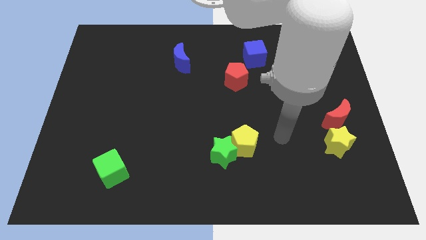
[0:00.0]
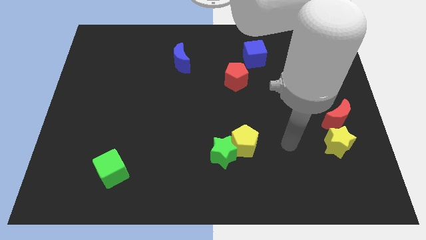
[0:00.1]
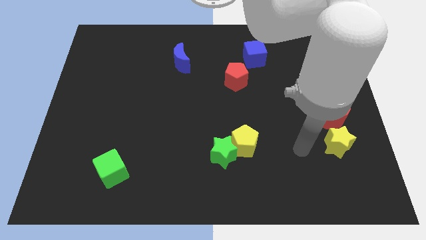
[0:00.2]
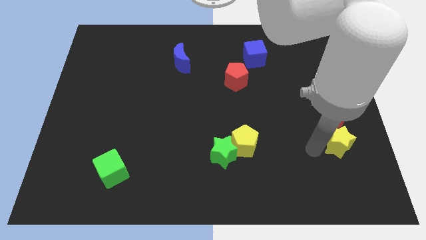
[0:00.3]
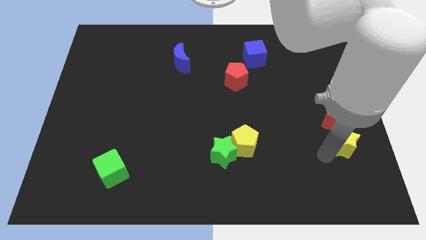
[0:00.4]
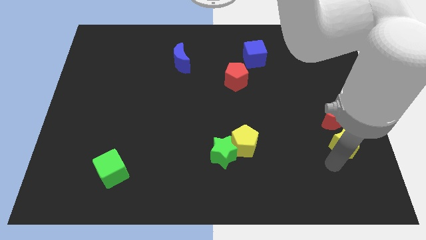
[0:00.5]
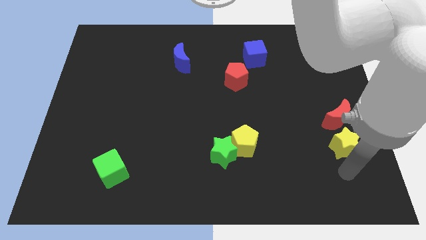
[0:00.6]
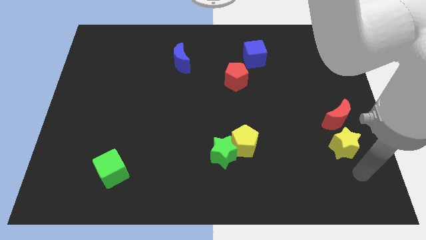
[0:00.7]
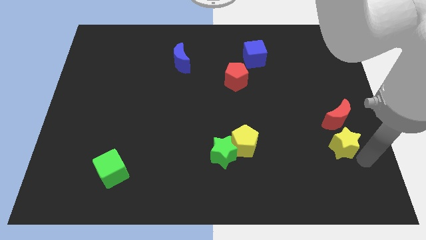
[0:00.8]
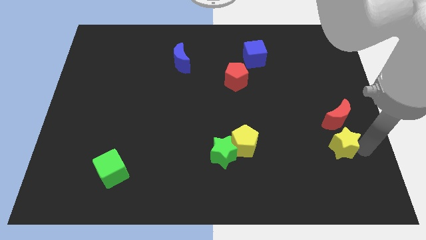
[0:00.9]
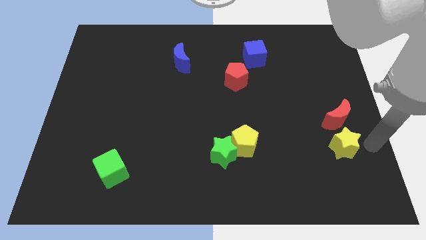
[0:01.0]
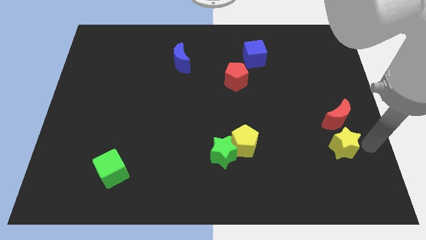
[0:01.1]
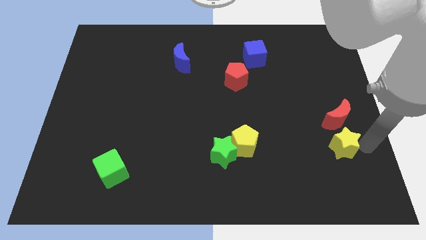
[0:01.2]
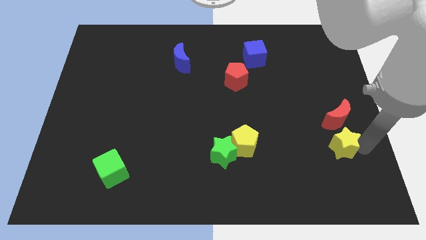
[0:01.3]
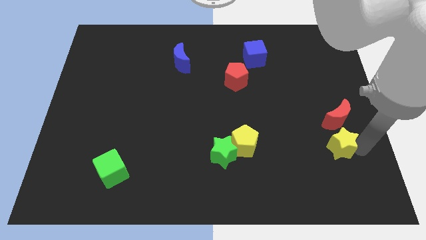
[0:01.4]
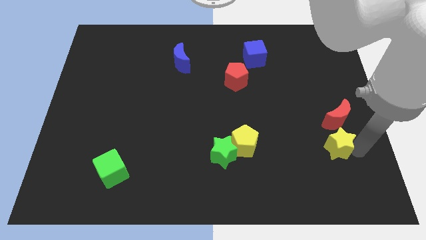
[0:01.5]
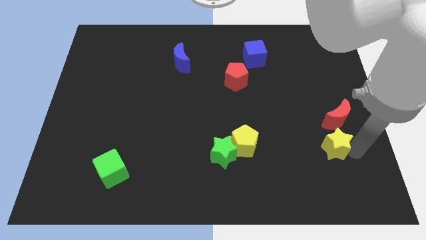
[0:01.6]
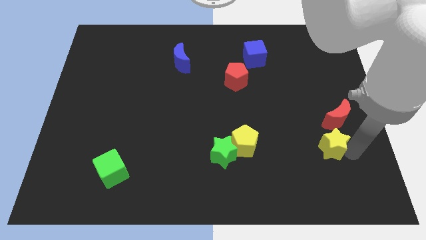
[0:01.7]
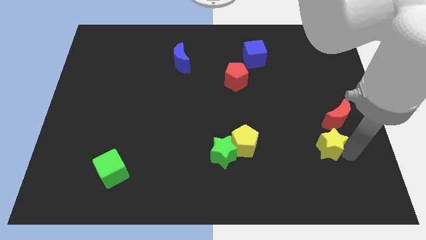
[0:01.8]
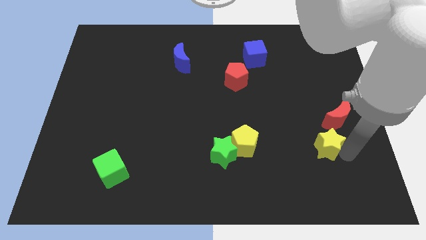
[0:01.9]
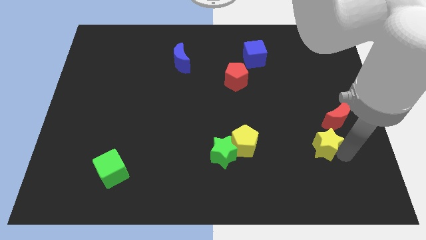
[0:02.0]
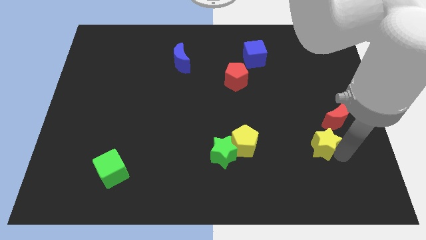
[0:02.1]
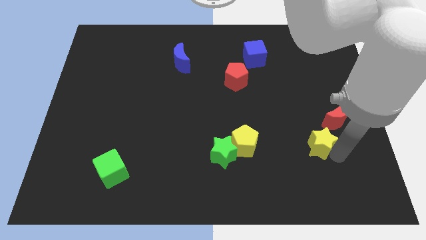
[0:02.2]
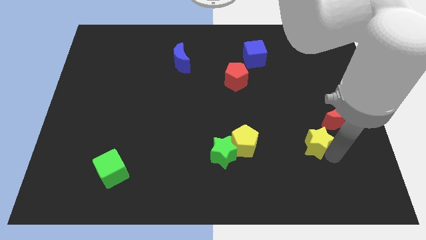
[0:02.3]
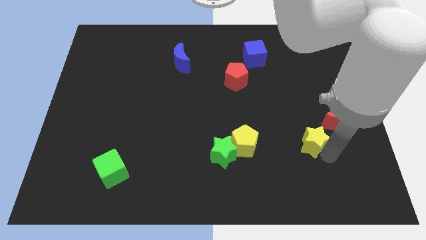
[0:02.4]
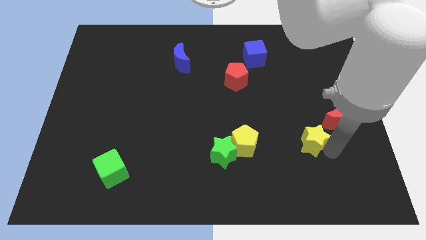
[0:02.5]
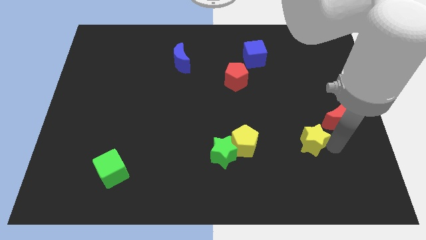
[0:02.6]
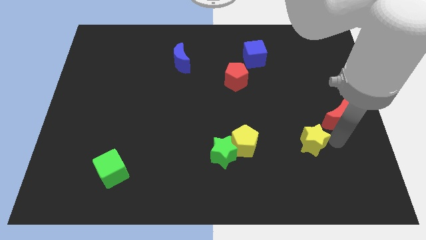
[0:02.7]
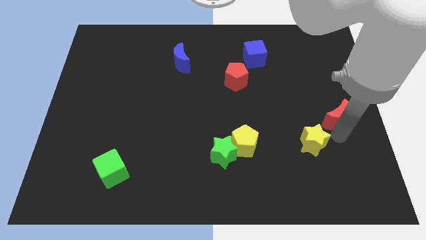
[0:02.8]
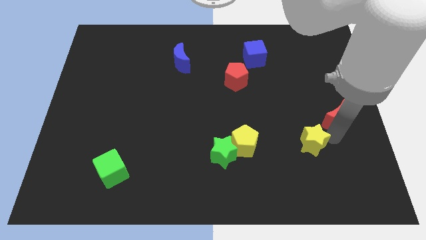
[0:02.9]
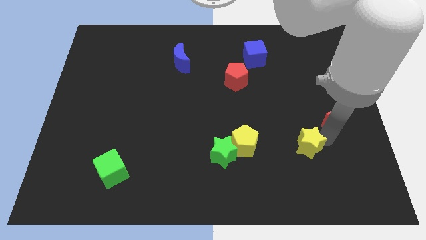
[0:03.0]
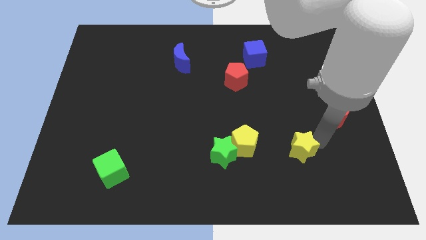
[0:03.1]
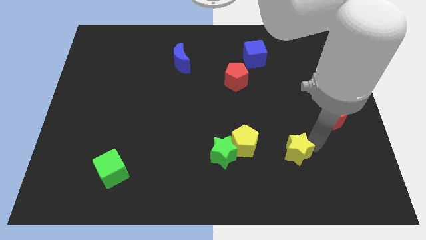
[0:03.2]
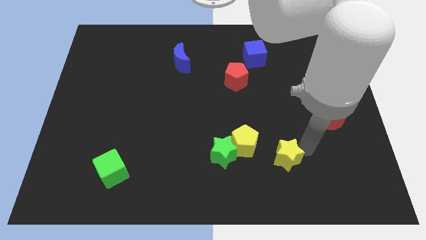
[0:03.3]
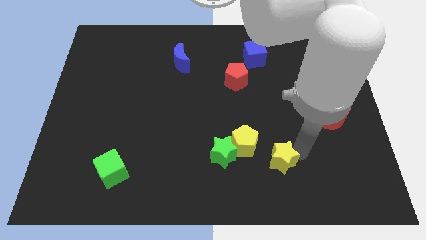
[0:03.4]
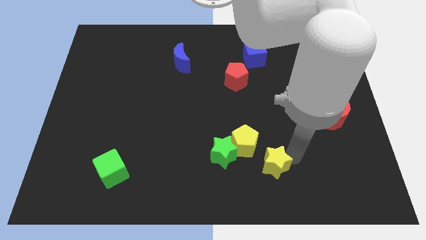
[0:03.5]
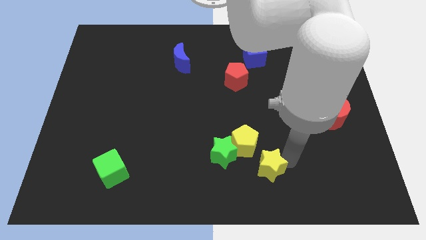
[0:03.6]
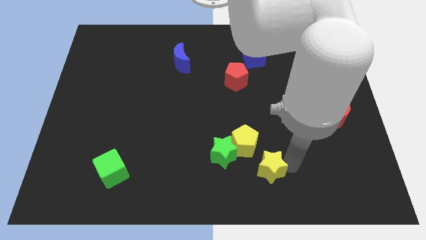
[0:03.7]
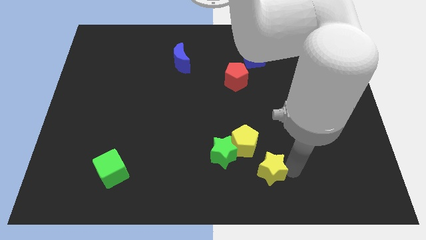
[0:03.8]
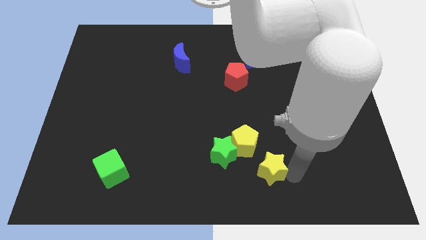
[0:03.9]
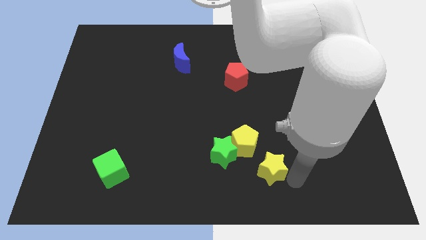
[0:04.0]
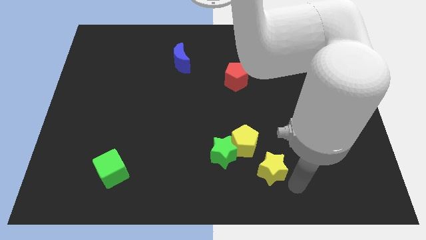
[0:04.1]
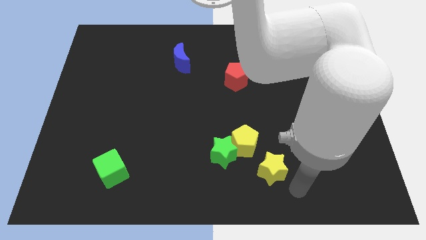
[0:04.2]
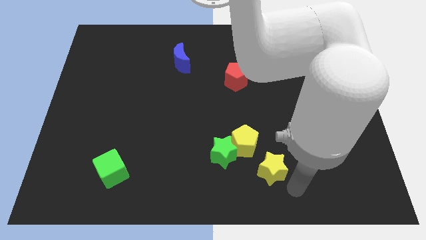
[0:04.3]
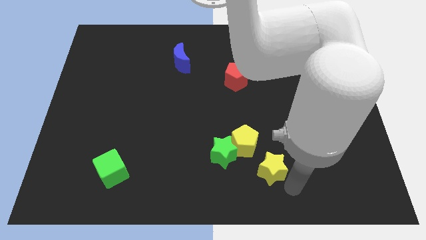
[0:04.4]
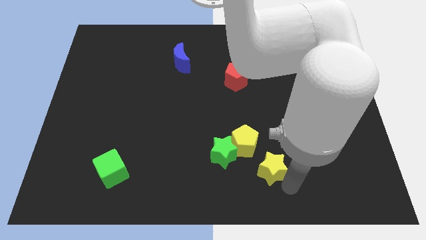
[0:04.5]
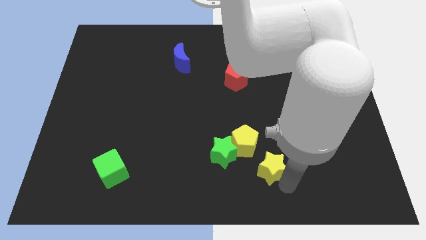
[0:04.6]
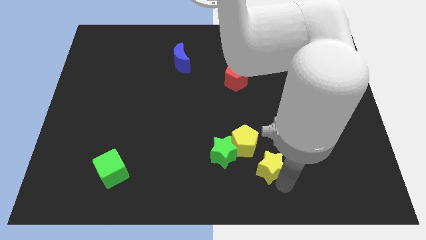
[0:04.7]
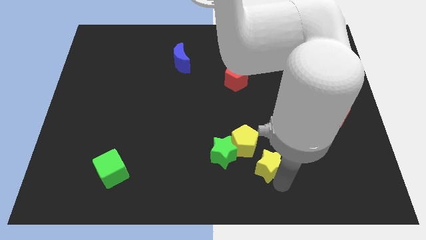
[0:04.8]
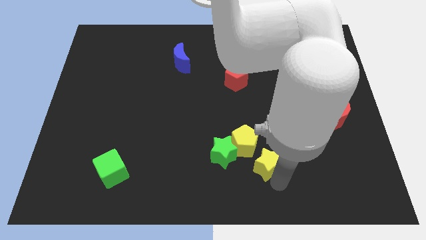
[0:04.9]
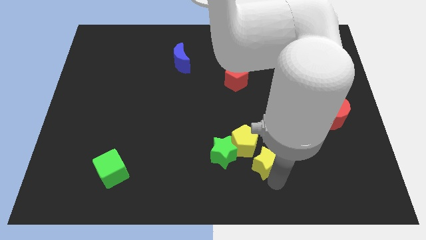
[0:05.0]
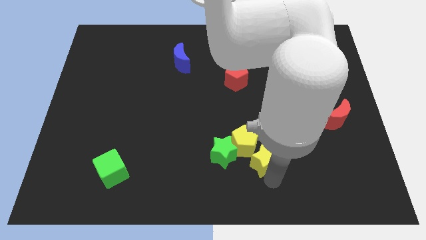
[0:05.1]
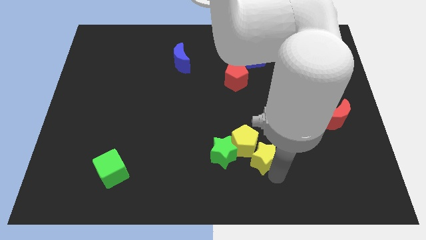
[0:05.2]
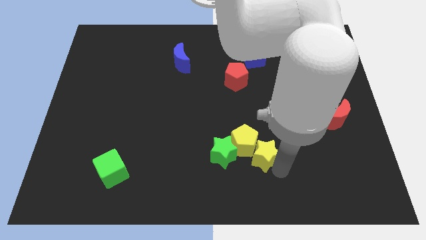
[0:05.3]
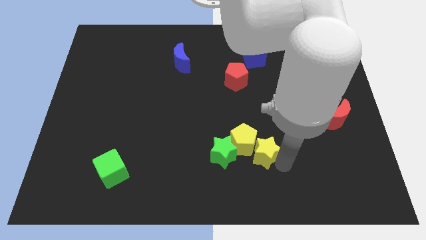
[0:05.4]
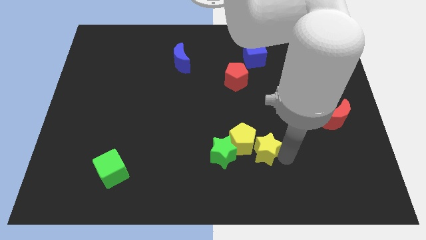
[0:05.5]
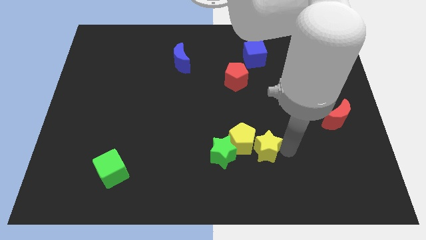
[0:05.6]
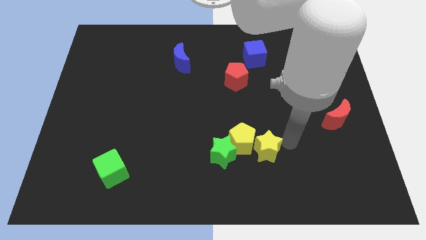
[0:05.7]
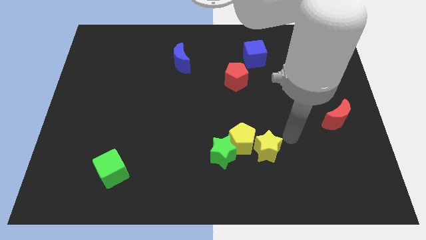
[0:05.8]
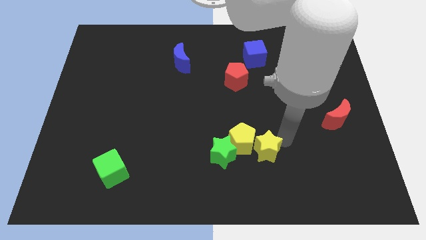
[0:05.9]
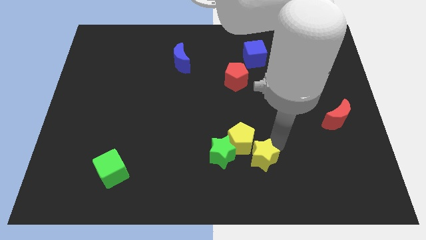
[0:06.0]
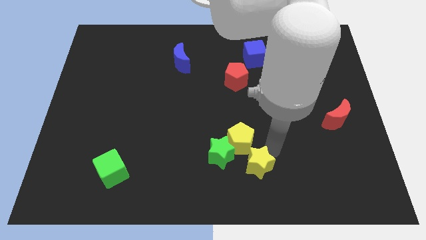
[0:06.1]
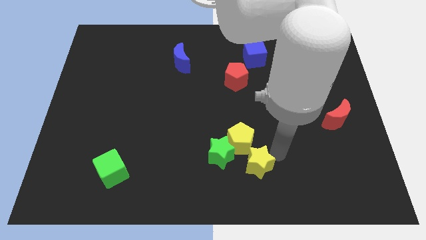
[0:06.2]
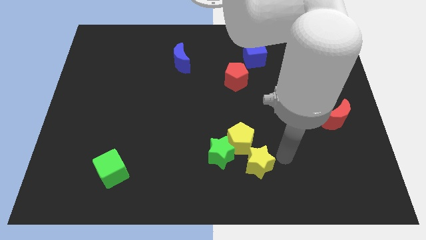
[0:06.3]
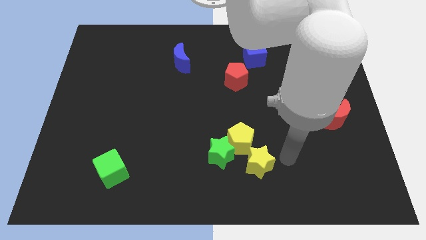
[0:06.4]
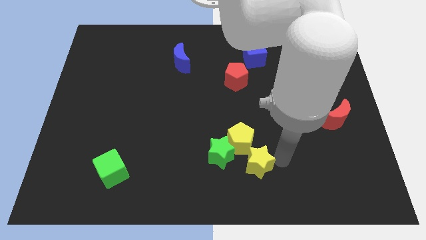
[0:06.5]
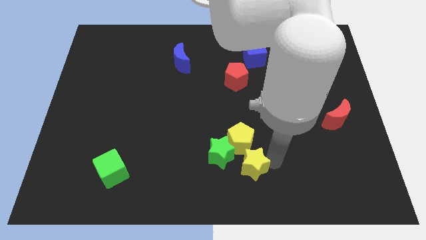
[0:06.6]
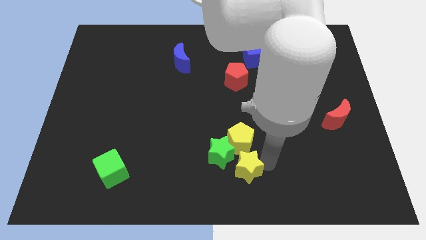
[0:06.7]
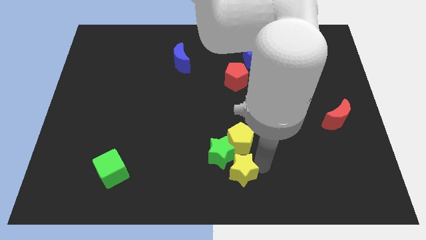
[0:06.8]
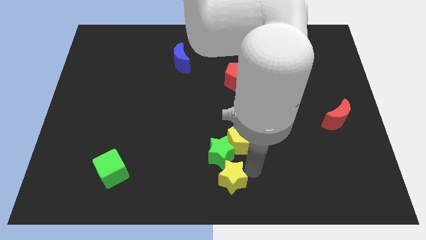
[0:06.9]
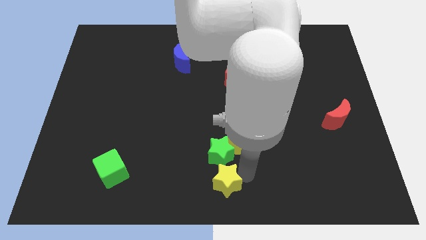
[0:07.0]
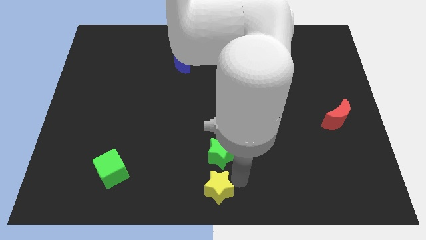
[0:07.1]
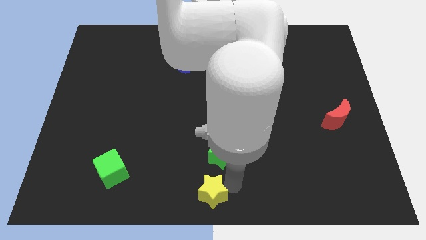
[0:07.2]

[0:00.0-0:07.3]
slide the yellow star diagonally down and to the left of the green star
